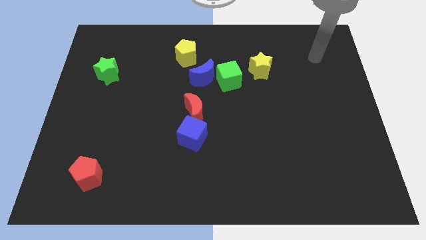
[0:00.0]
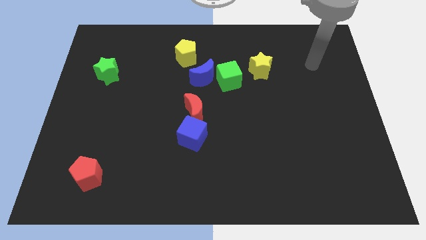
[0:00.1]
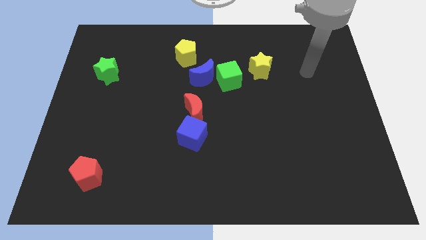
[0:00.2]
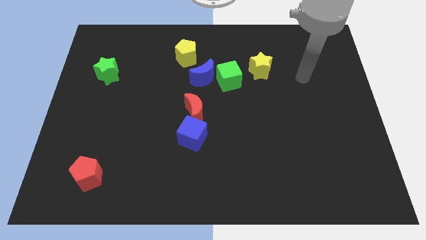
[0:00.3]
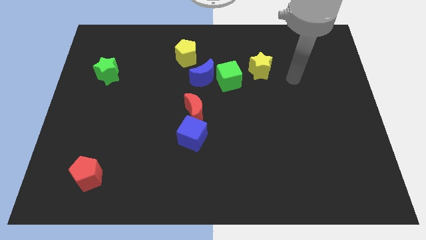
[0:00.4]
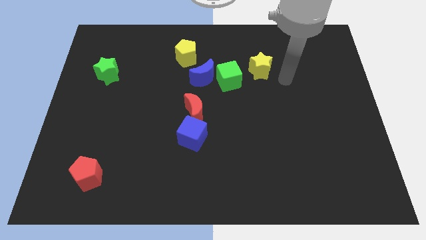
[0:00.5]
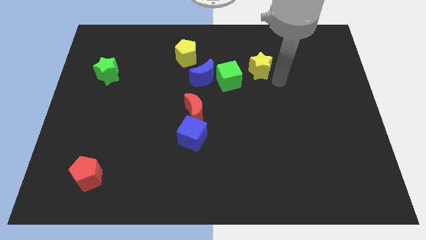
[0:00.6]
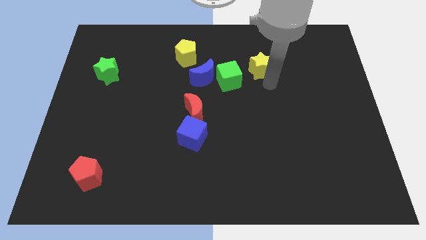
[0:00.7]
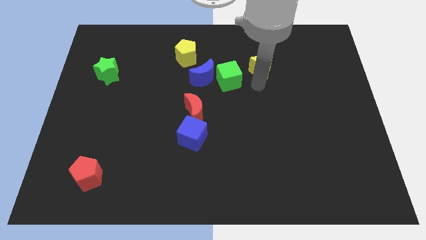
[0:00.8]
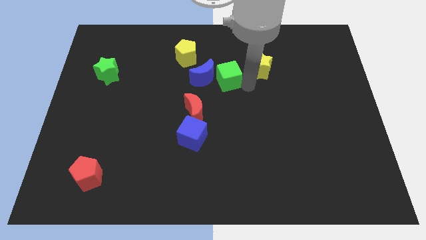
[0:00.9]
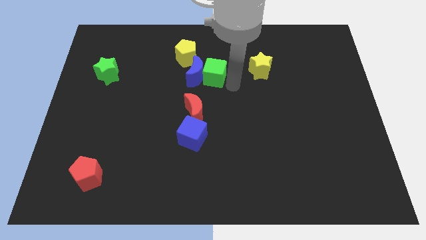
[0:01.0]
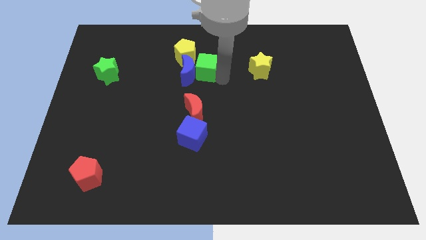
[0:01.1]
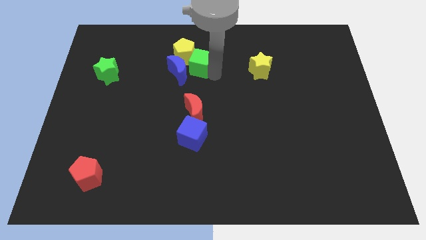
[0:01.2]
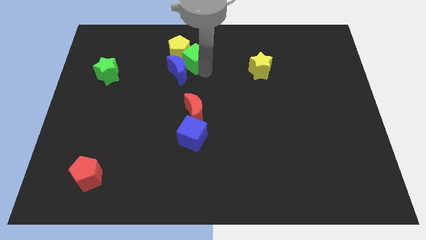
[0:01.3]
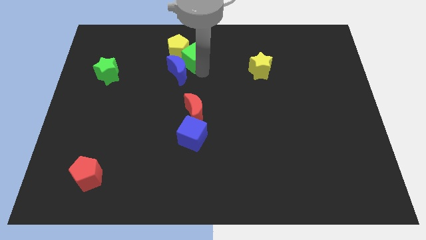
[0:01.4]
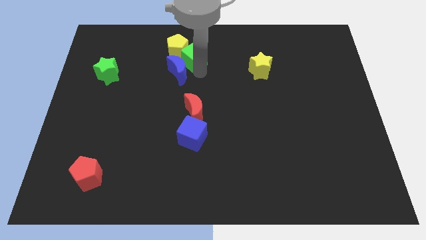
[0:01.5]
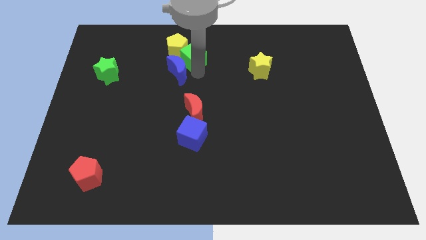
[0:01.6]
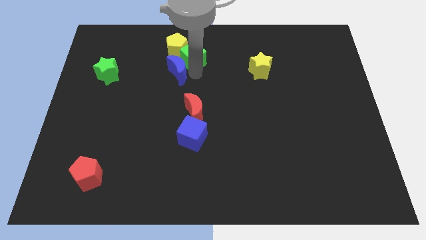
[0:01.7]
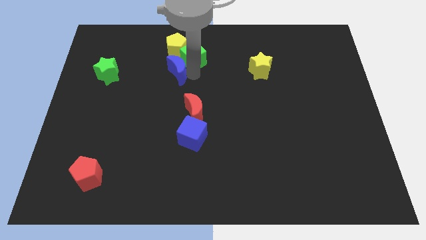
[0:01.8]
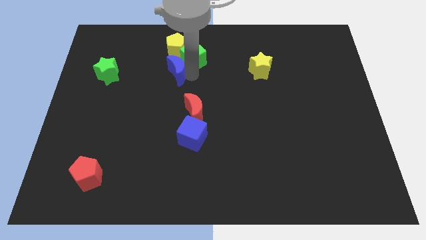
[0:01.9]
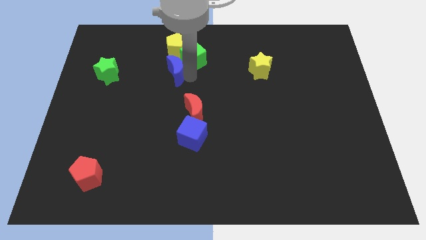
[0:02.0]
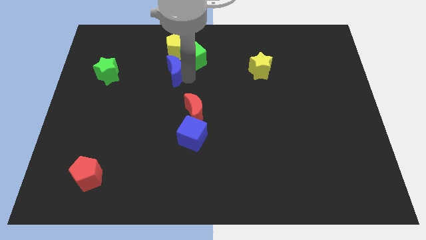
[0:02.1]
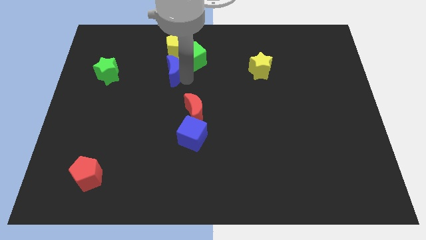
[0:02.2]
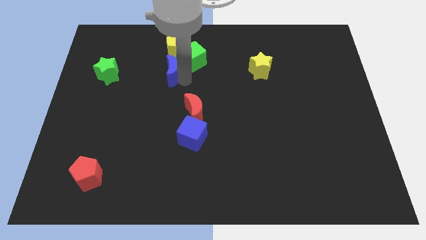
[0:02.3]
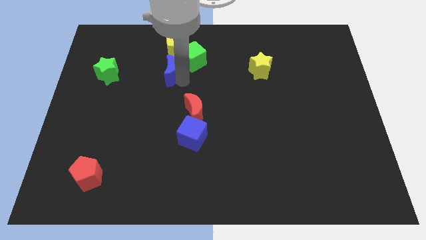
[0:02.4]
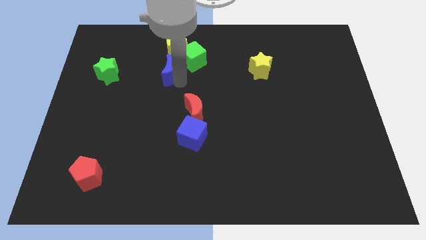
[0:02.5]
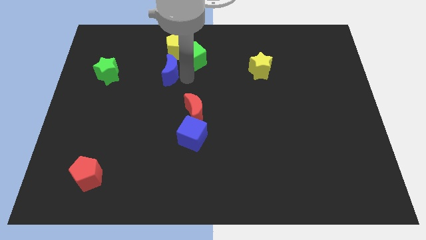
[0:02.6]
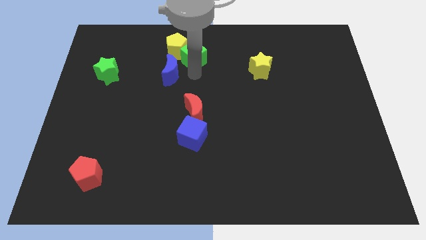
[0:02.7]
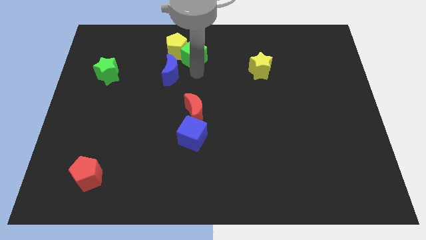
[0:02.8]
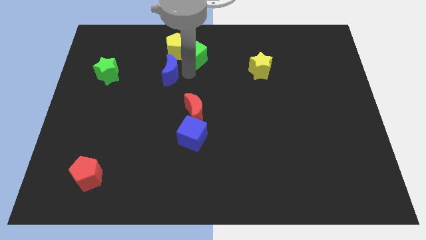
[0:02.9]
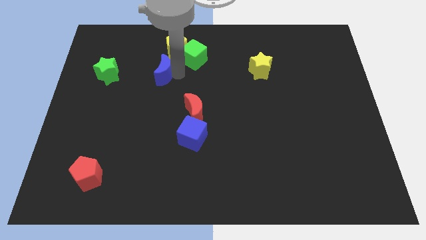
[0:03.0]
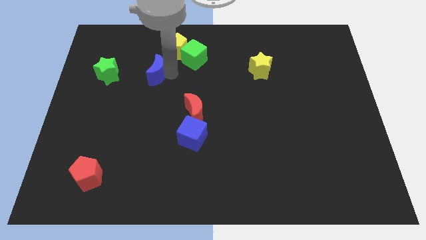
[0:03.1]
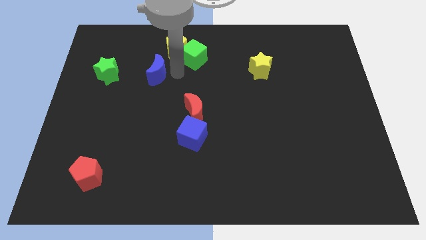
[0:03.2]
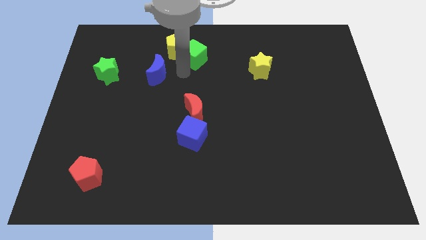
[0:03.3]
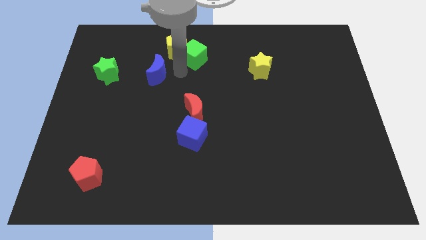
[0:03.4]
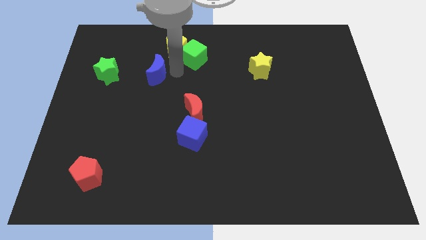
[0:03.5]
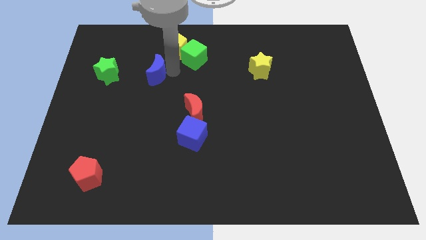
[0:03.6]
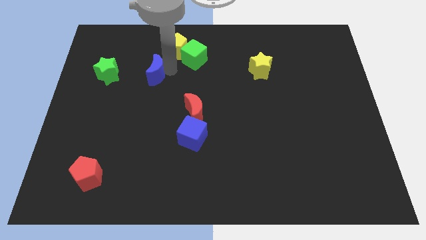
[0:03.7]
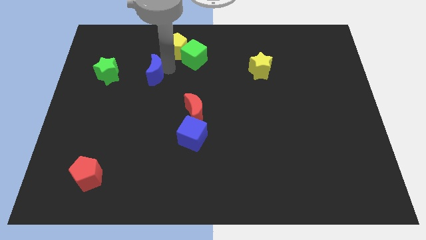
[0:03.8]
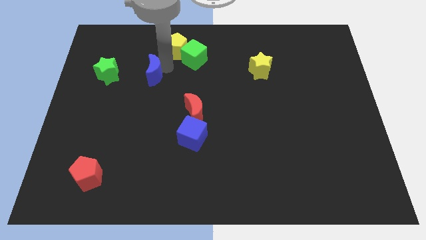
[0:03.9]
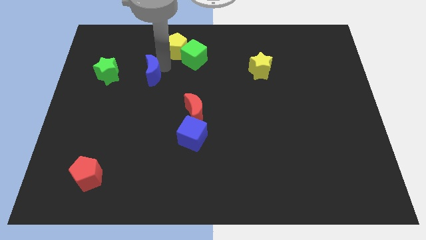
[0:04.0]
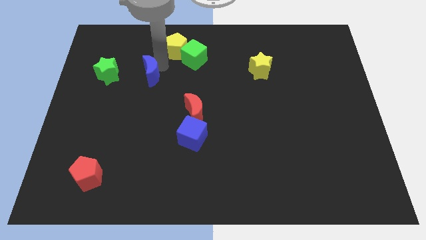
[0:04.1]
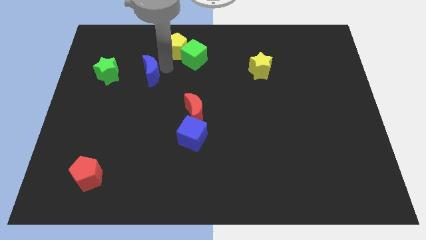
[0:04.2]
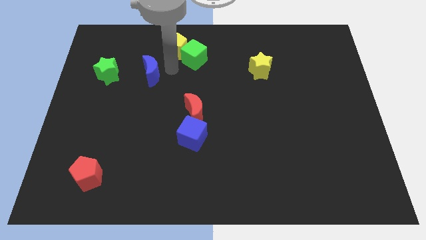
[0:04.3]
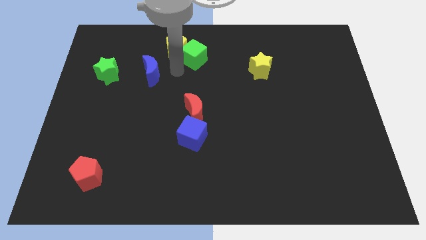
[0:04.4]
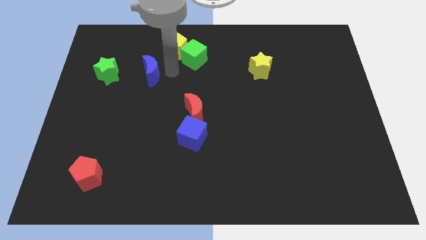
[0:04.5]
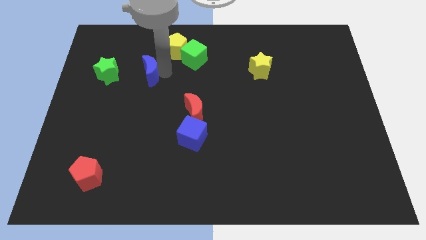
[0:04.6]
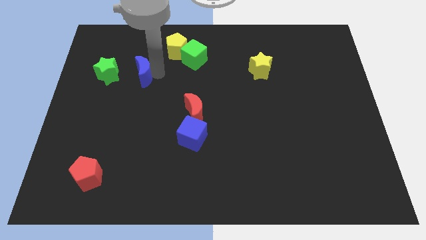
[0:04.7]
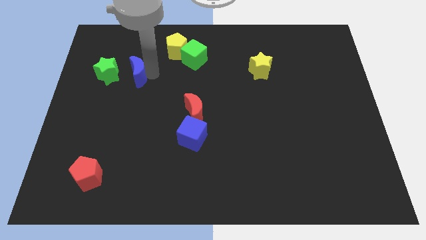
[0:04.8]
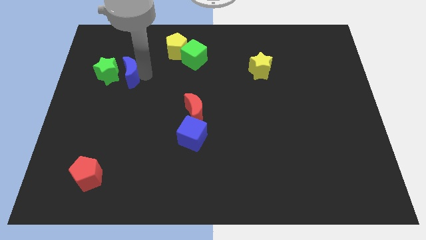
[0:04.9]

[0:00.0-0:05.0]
push the blue moon to the green star

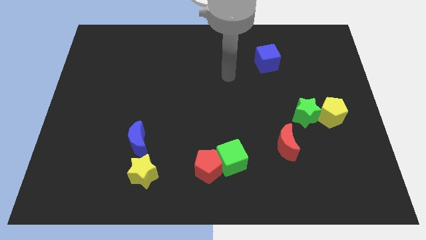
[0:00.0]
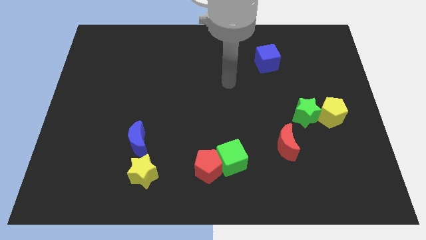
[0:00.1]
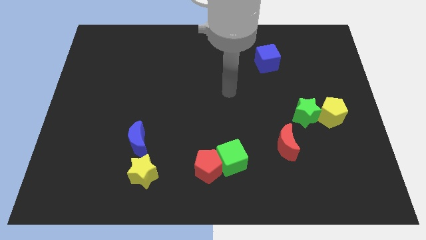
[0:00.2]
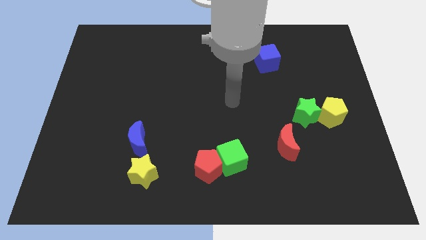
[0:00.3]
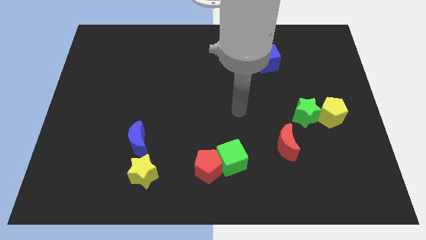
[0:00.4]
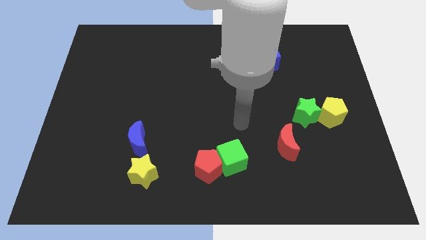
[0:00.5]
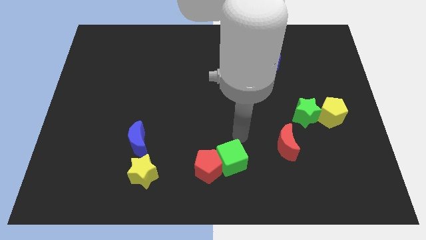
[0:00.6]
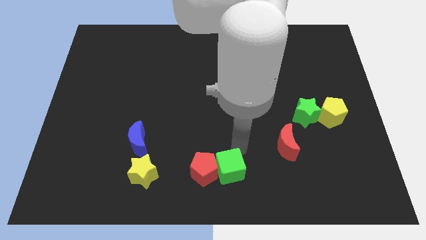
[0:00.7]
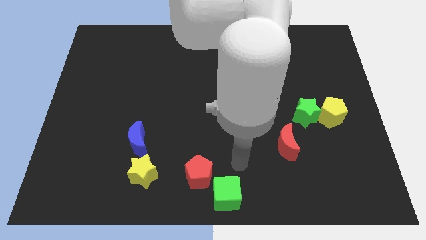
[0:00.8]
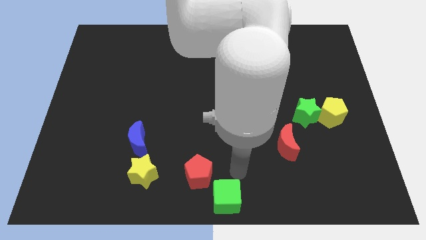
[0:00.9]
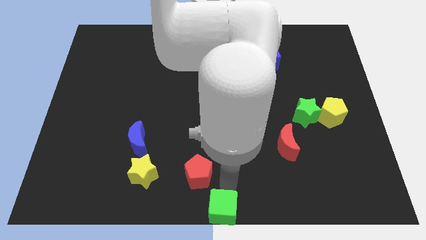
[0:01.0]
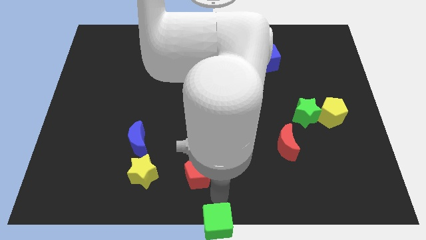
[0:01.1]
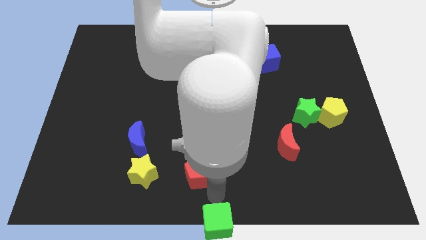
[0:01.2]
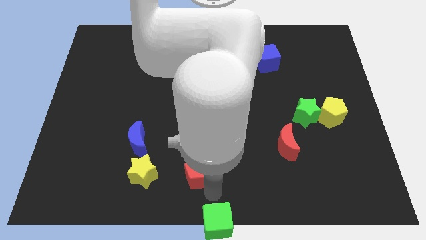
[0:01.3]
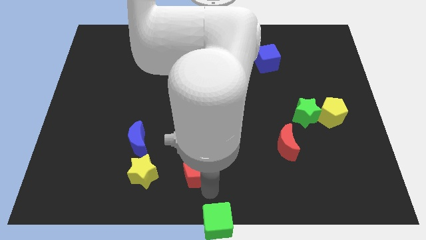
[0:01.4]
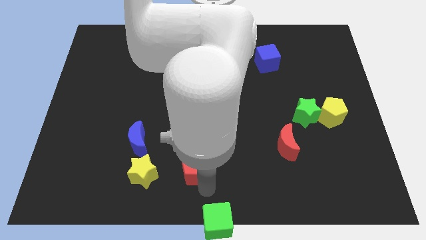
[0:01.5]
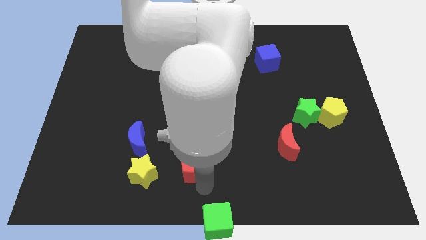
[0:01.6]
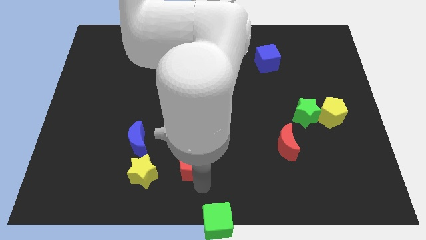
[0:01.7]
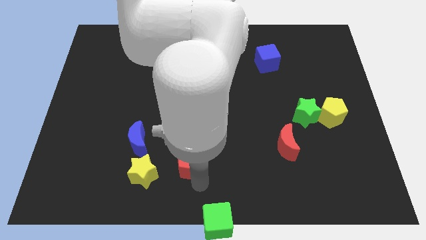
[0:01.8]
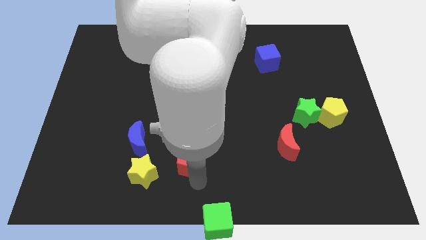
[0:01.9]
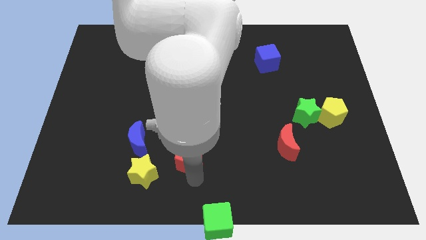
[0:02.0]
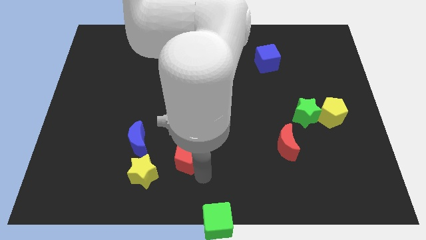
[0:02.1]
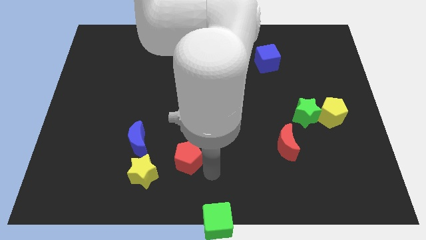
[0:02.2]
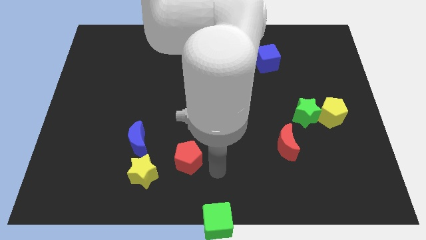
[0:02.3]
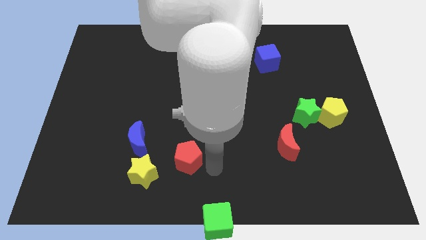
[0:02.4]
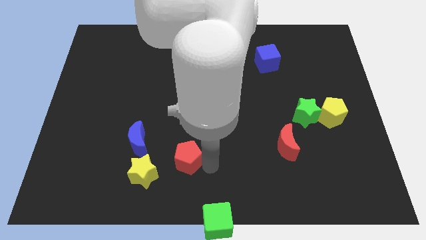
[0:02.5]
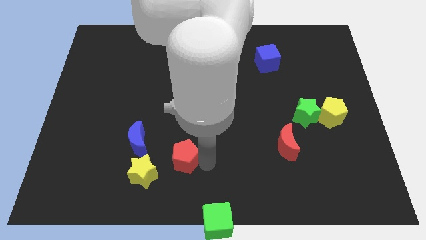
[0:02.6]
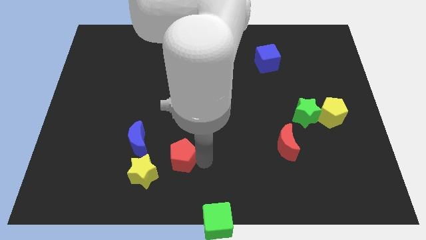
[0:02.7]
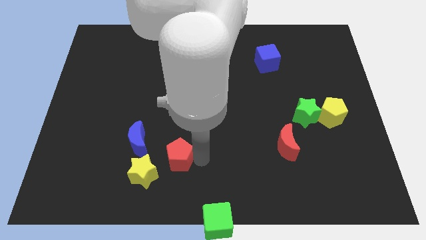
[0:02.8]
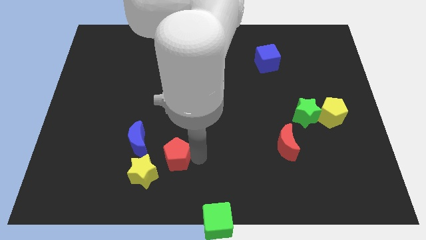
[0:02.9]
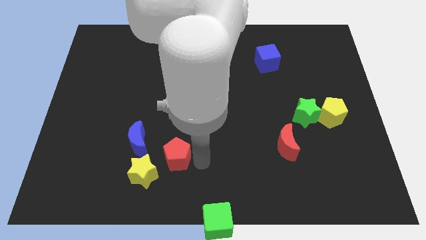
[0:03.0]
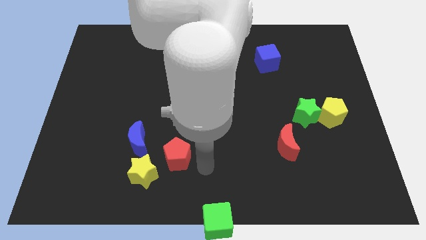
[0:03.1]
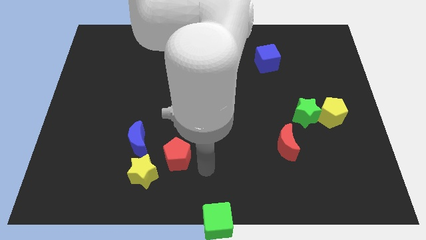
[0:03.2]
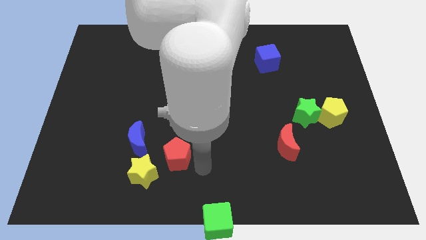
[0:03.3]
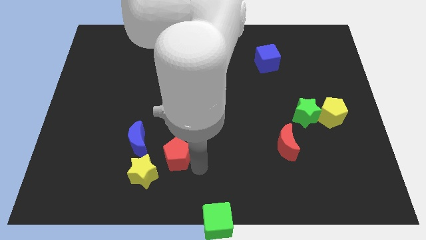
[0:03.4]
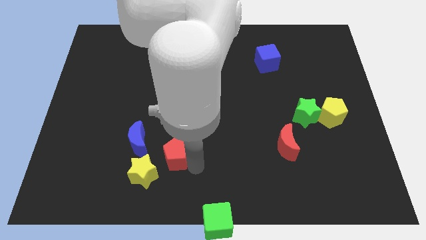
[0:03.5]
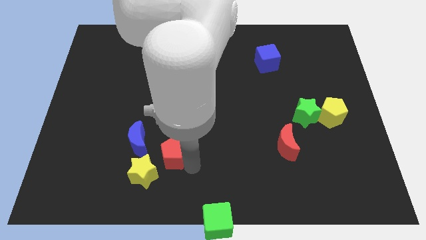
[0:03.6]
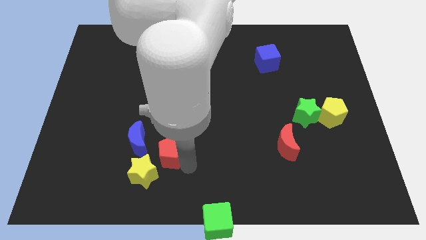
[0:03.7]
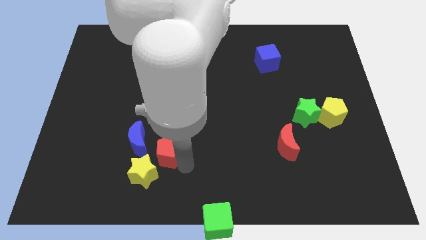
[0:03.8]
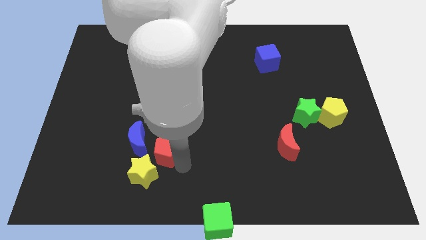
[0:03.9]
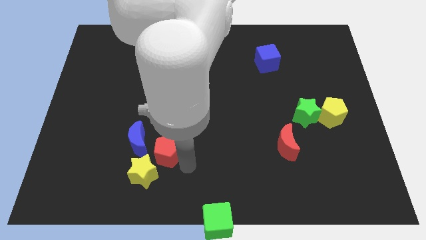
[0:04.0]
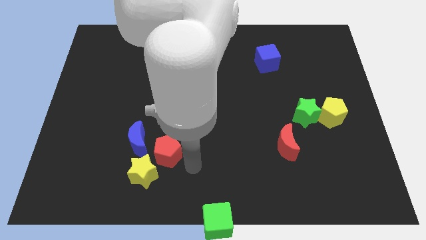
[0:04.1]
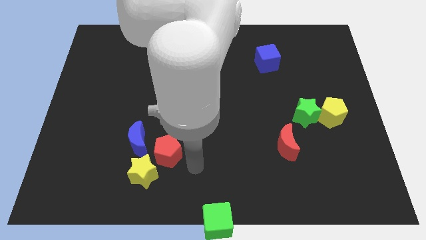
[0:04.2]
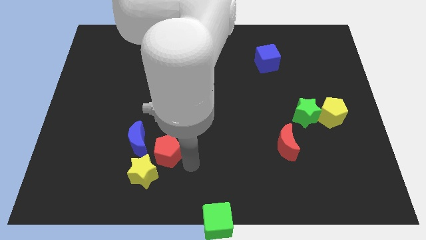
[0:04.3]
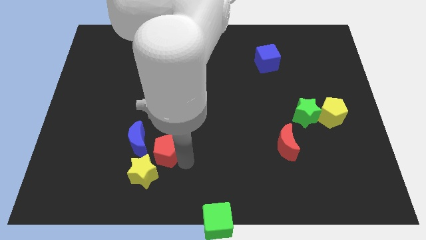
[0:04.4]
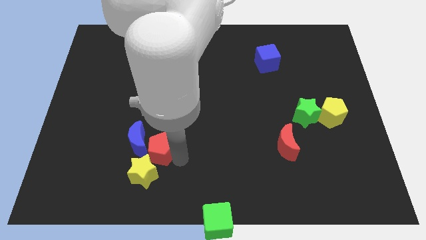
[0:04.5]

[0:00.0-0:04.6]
slide the red pentagon towards the blue moon
